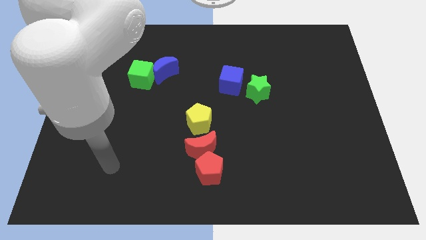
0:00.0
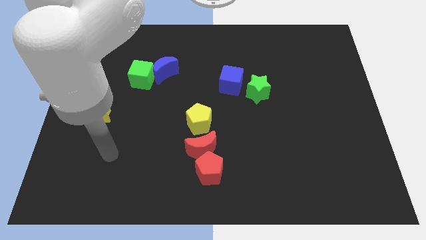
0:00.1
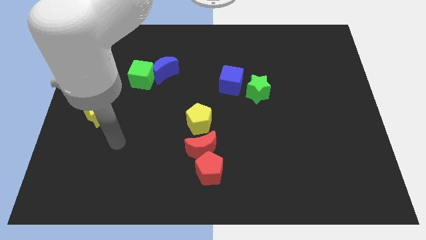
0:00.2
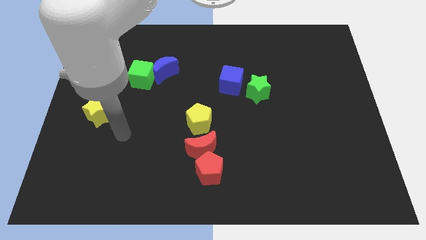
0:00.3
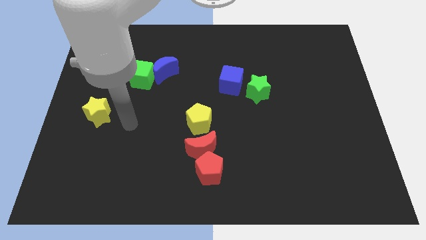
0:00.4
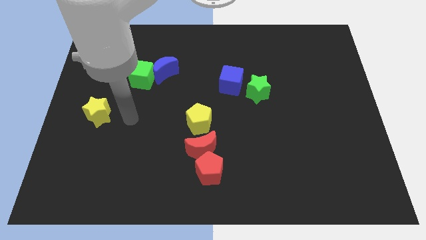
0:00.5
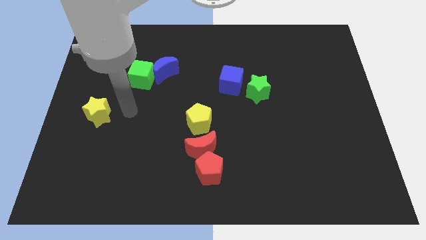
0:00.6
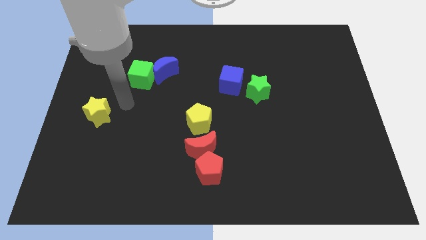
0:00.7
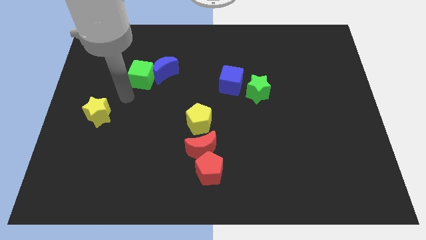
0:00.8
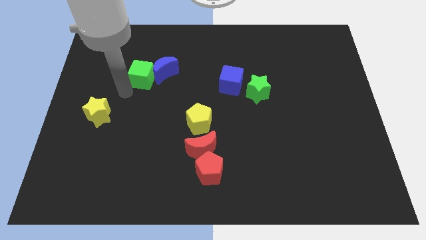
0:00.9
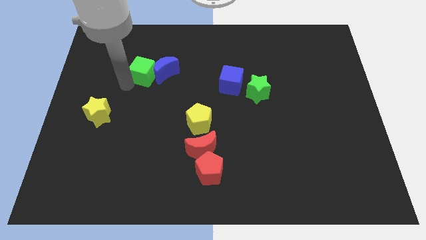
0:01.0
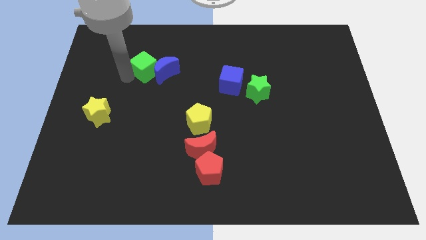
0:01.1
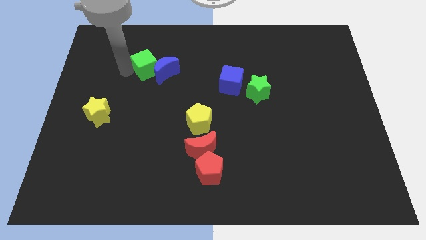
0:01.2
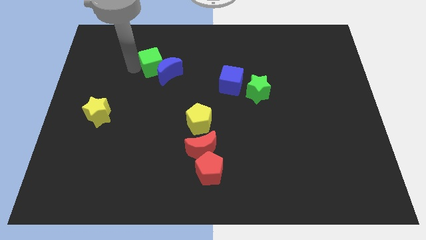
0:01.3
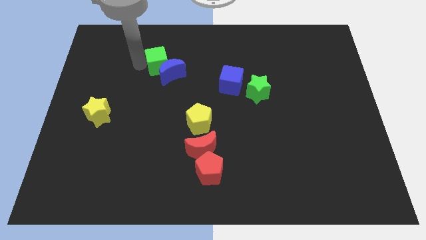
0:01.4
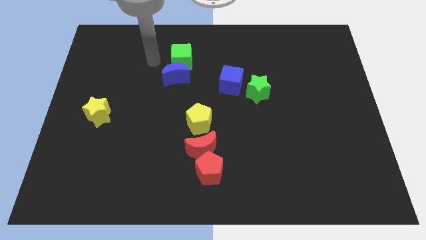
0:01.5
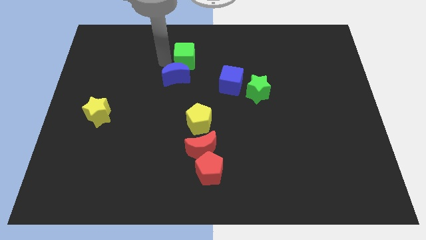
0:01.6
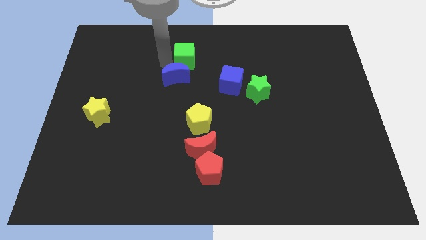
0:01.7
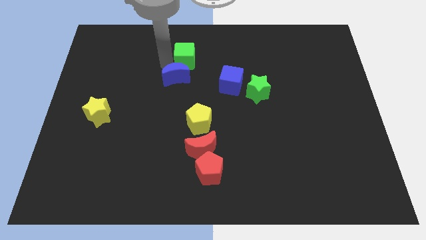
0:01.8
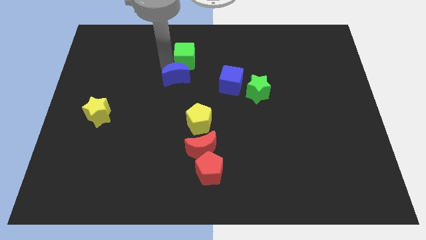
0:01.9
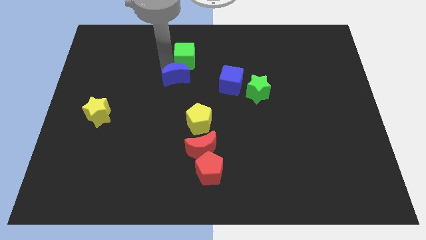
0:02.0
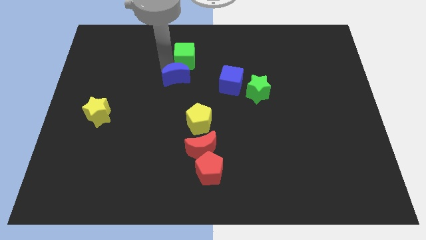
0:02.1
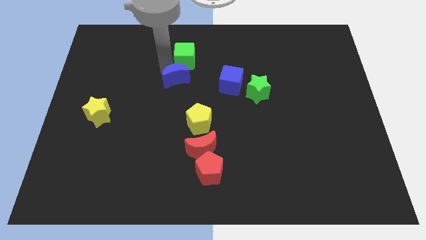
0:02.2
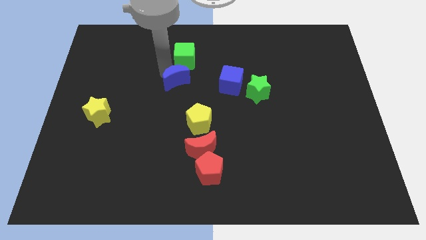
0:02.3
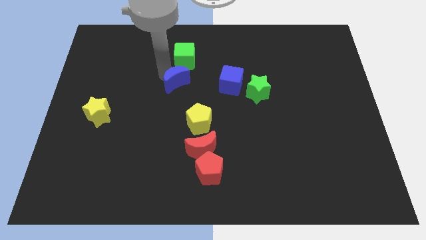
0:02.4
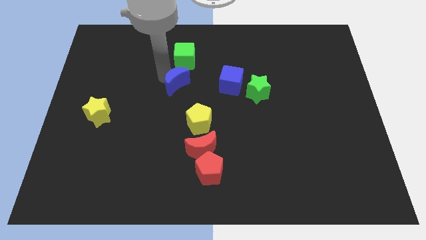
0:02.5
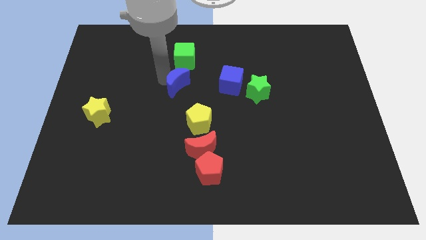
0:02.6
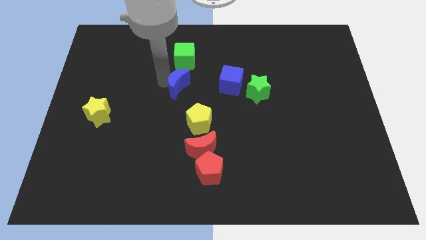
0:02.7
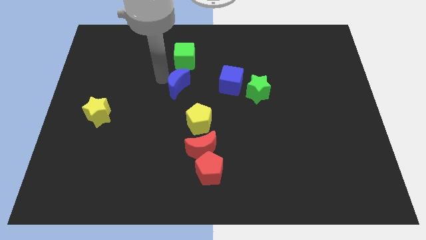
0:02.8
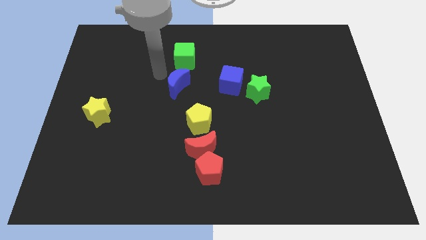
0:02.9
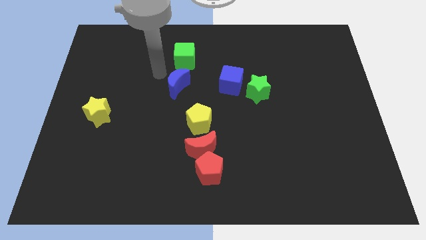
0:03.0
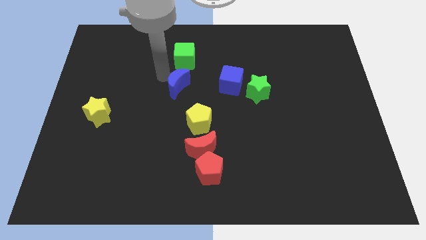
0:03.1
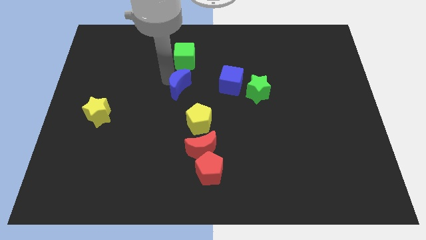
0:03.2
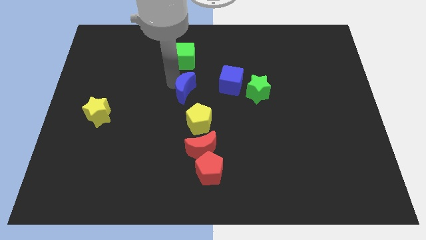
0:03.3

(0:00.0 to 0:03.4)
slide the blue moon a little bit diagonally down and to the right

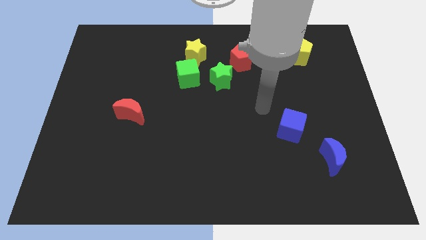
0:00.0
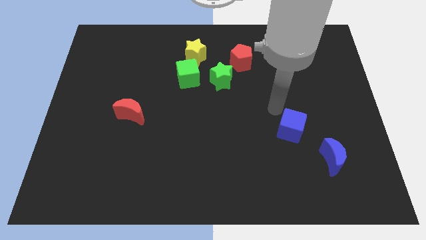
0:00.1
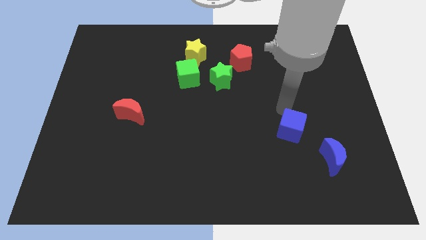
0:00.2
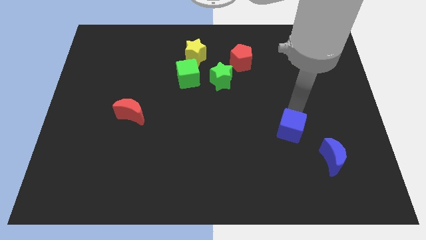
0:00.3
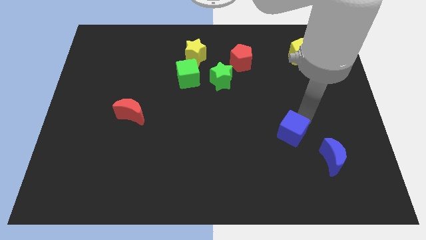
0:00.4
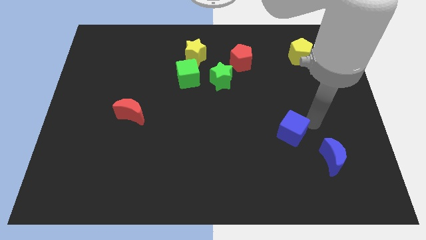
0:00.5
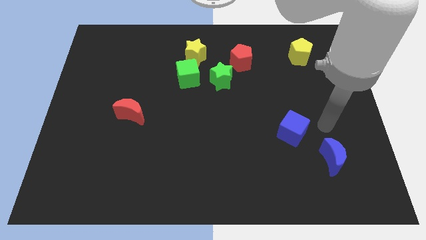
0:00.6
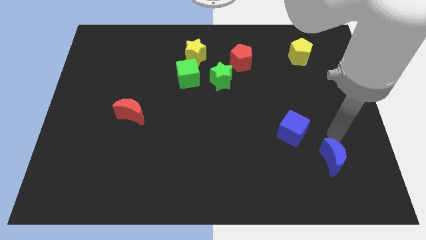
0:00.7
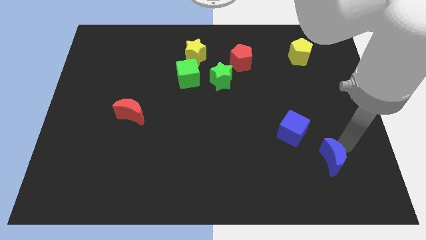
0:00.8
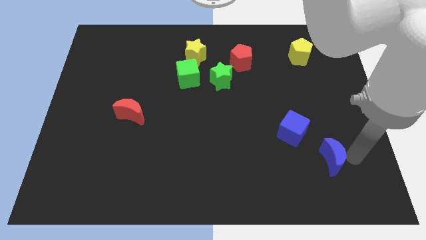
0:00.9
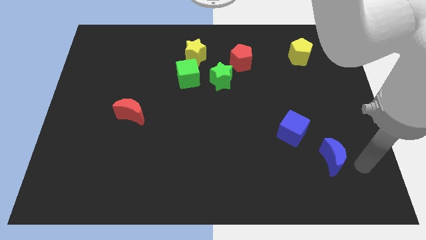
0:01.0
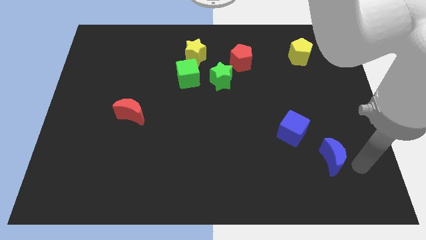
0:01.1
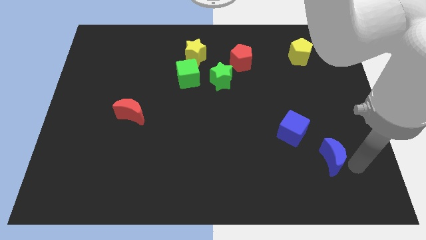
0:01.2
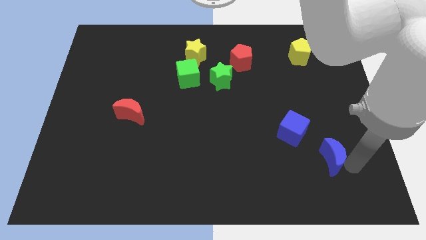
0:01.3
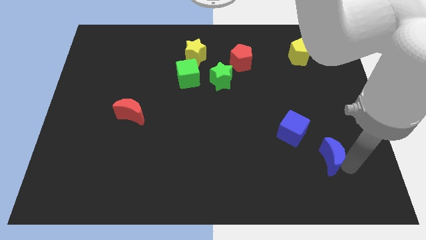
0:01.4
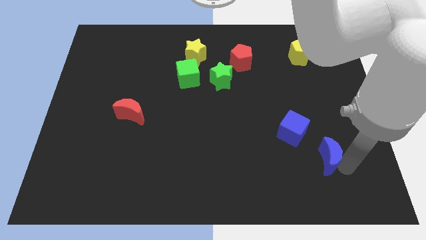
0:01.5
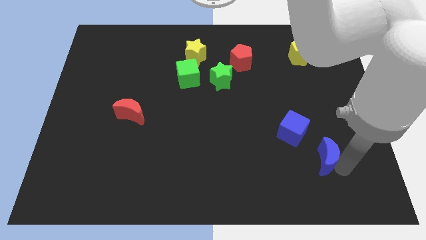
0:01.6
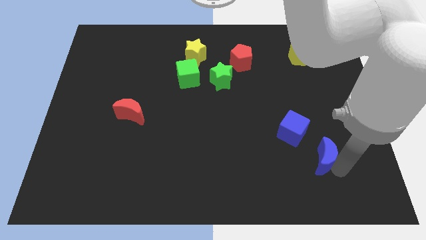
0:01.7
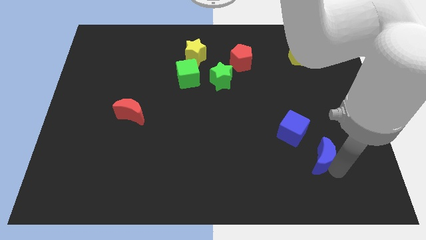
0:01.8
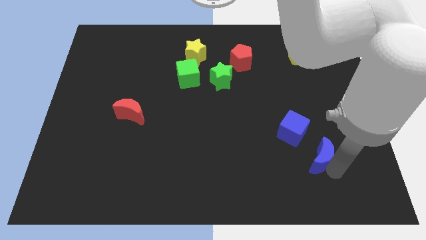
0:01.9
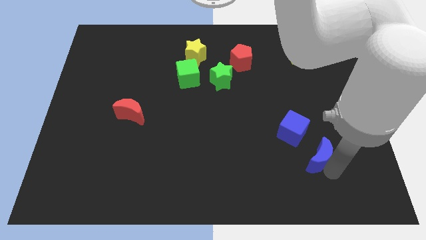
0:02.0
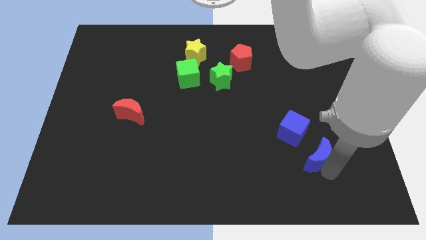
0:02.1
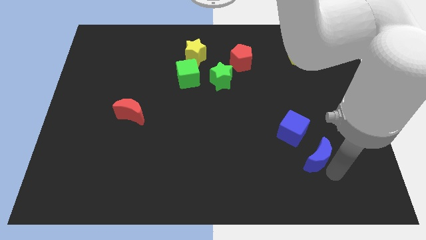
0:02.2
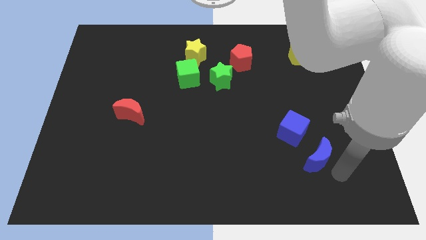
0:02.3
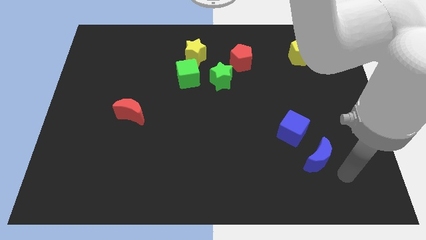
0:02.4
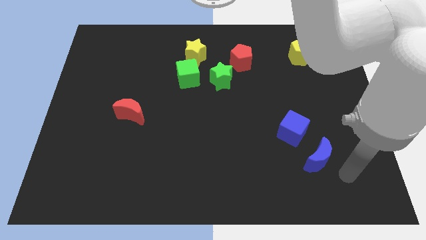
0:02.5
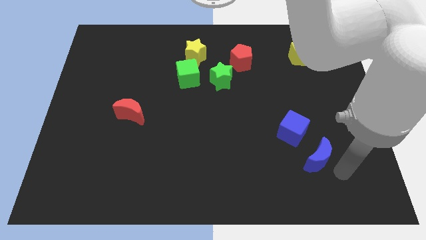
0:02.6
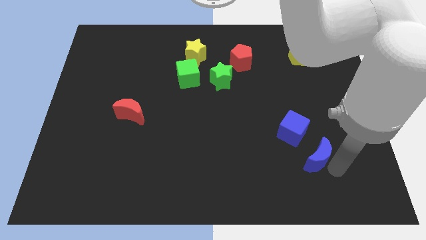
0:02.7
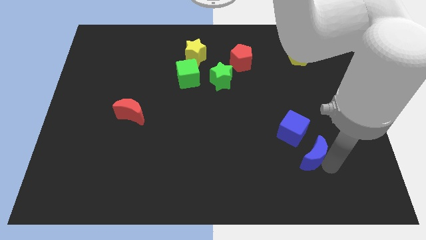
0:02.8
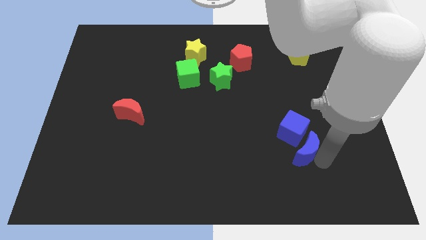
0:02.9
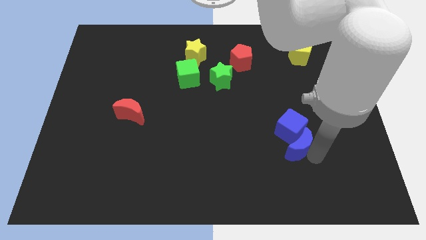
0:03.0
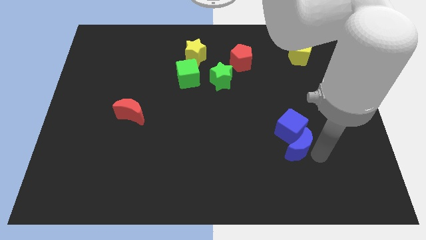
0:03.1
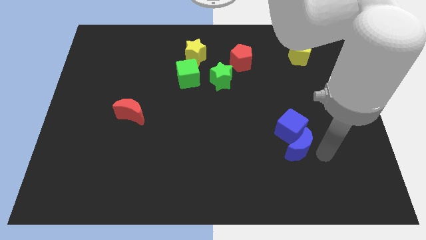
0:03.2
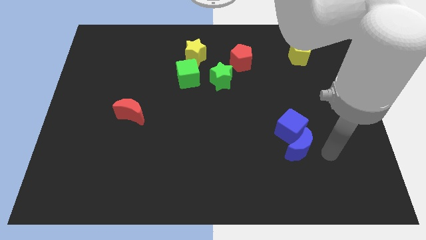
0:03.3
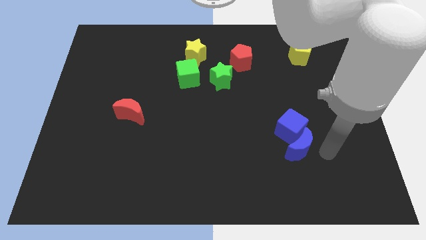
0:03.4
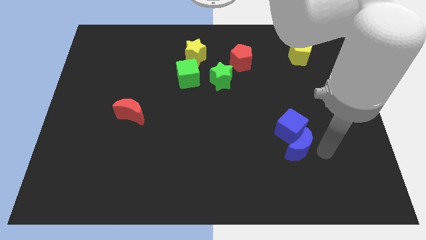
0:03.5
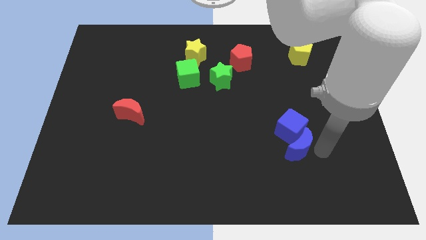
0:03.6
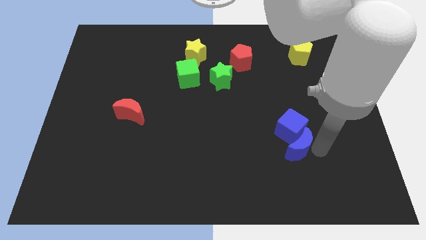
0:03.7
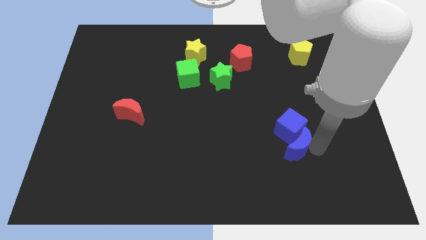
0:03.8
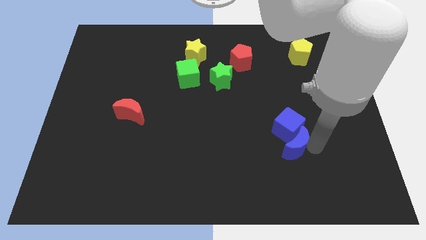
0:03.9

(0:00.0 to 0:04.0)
push the blue moon slightly upwards and left diagonally

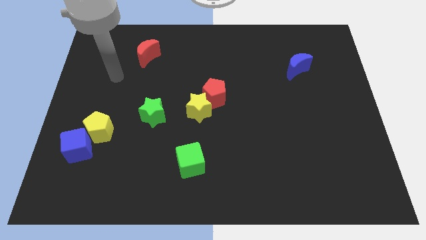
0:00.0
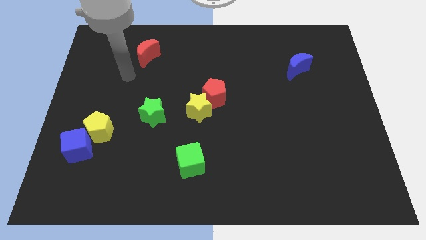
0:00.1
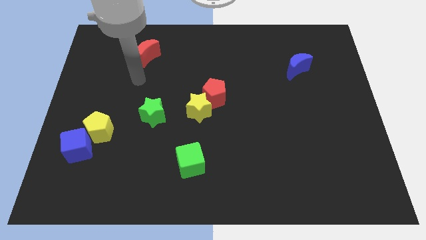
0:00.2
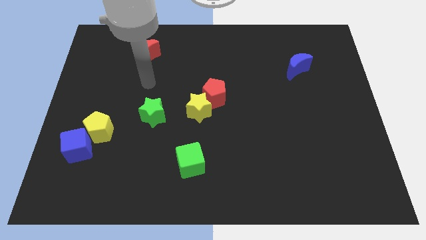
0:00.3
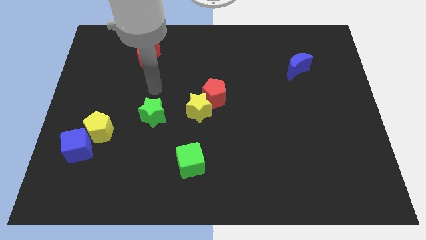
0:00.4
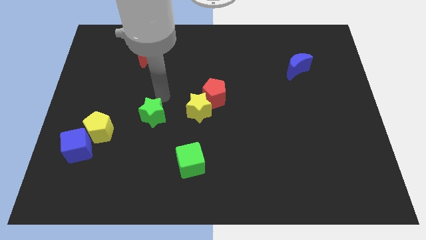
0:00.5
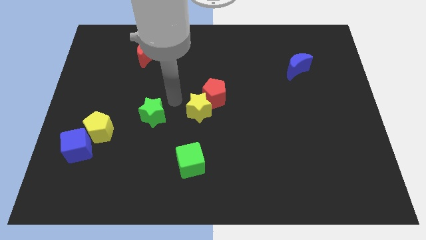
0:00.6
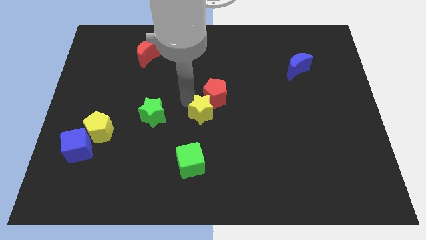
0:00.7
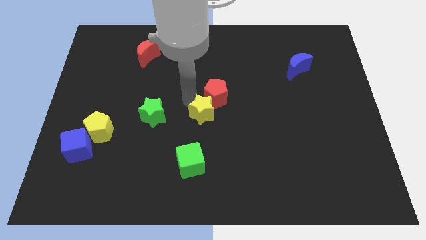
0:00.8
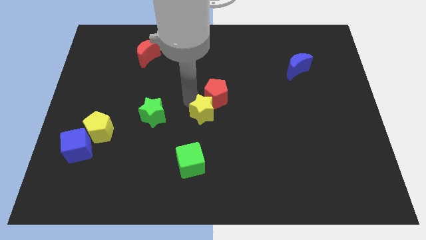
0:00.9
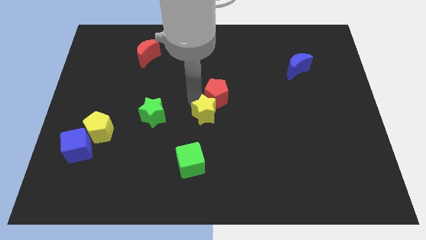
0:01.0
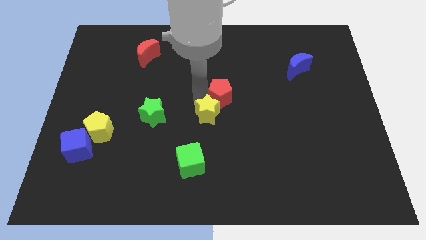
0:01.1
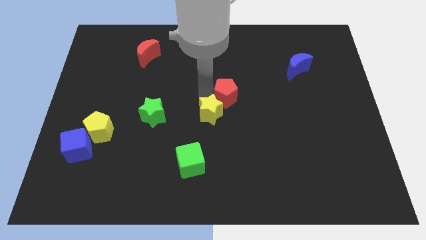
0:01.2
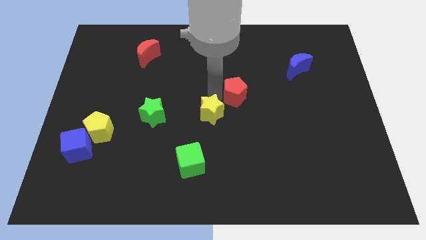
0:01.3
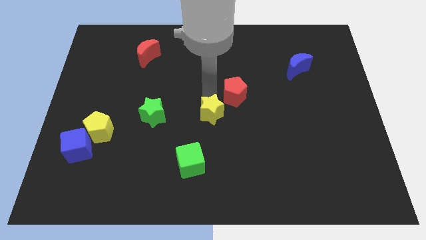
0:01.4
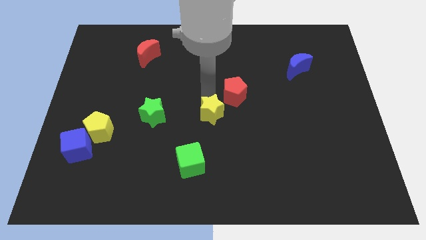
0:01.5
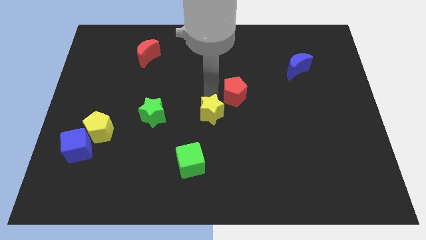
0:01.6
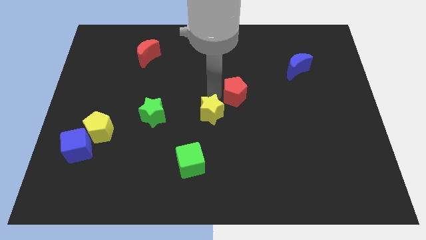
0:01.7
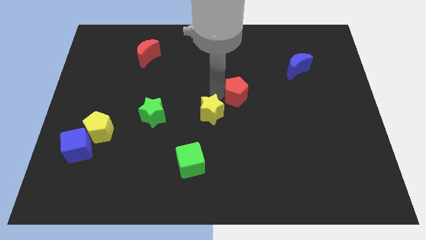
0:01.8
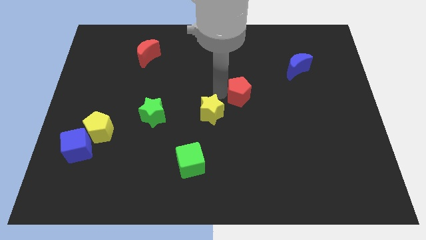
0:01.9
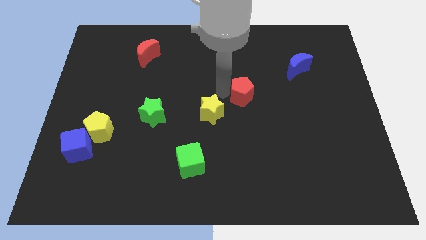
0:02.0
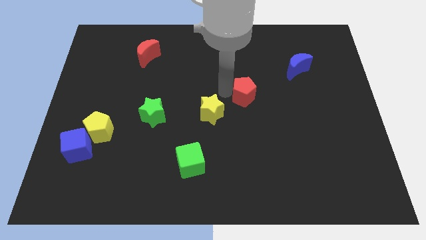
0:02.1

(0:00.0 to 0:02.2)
push the red pentagon to the right a little bit
